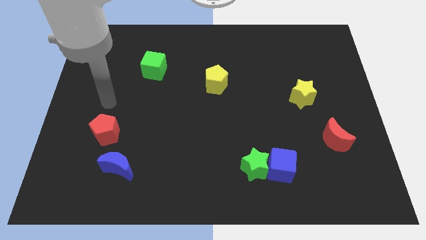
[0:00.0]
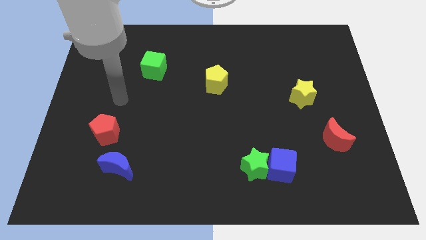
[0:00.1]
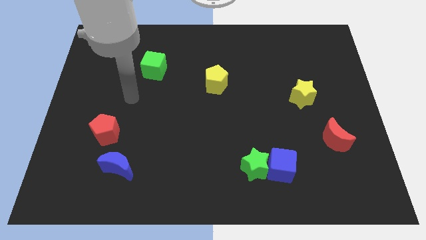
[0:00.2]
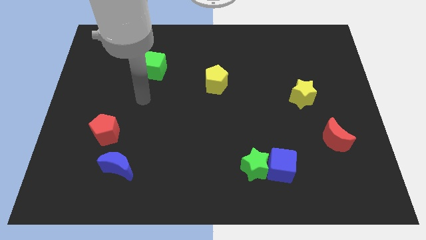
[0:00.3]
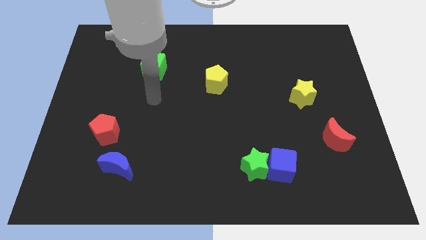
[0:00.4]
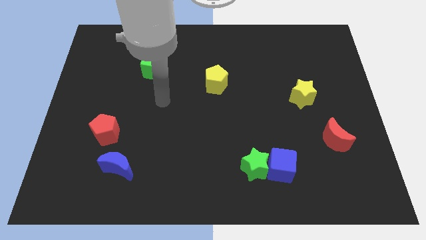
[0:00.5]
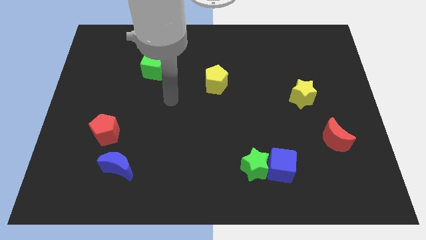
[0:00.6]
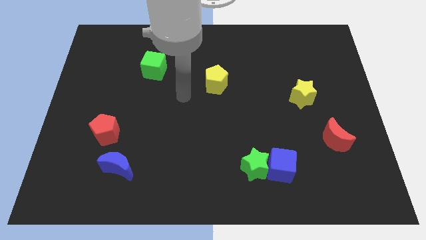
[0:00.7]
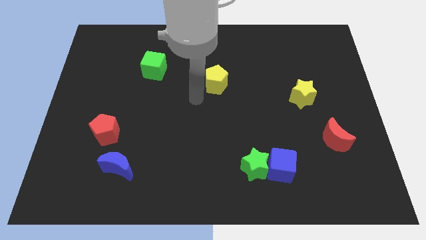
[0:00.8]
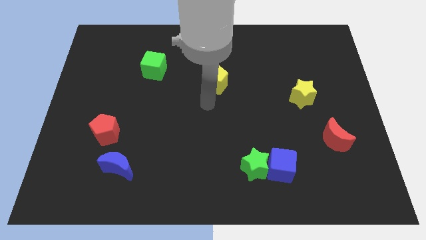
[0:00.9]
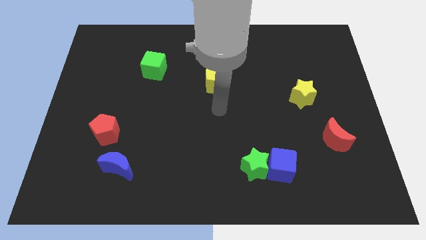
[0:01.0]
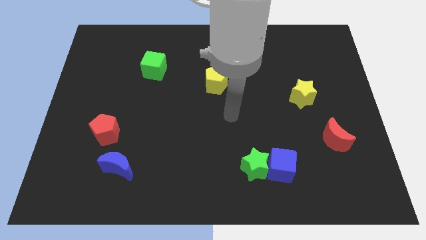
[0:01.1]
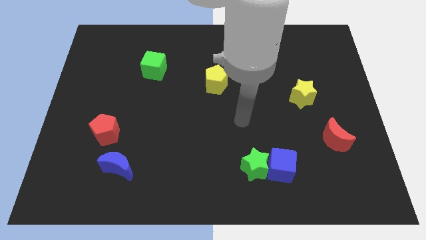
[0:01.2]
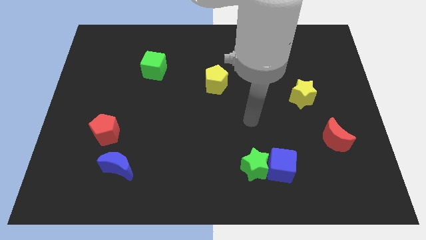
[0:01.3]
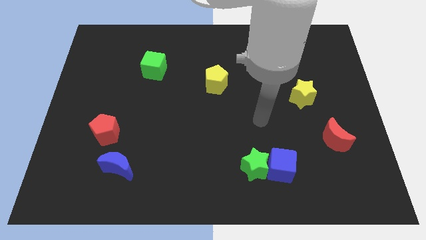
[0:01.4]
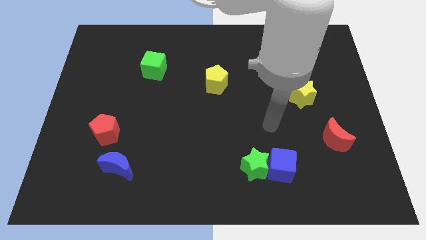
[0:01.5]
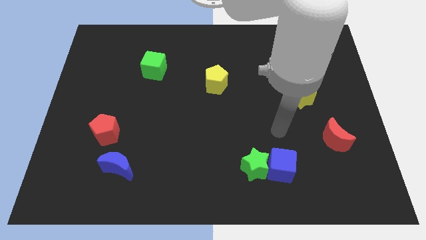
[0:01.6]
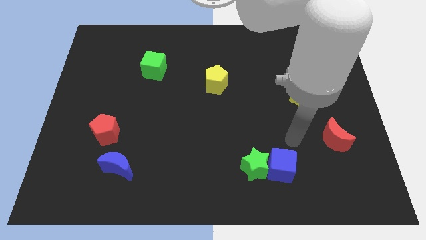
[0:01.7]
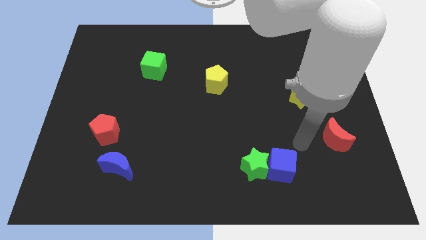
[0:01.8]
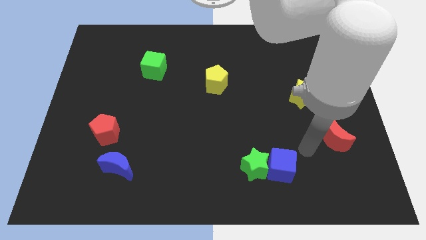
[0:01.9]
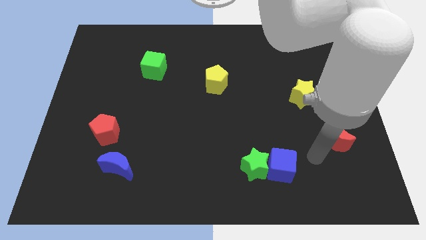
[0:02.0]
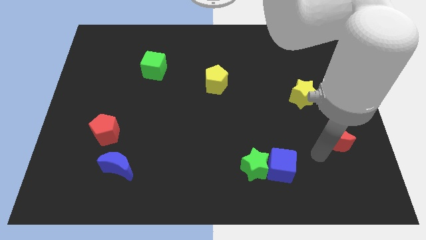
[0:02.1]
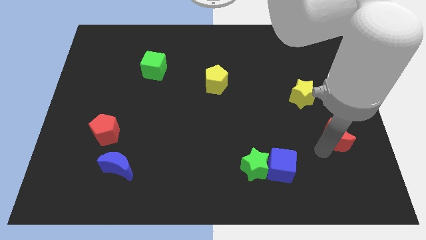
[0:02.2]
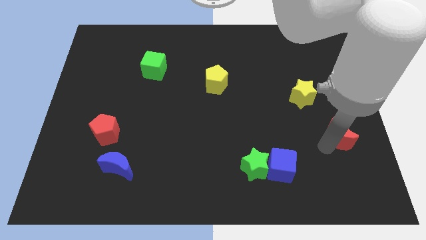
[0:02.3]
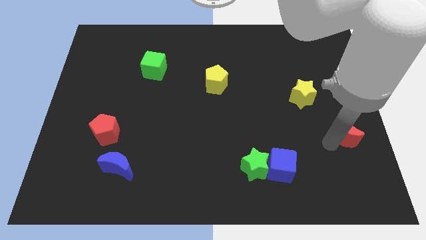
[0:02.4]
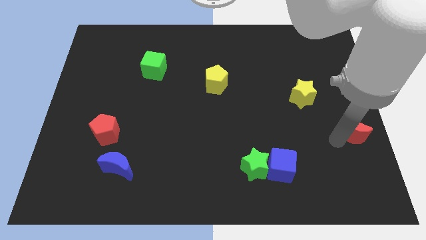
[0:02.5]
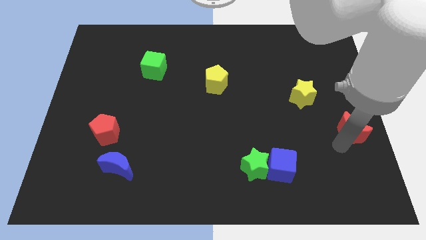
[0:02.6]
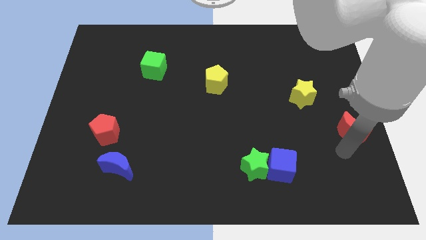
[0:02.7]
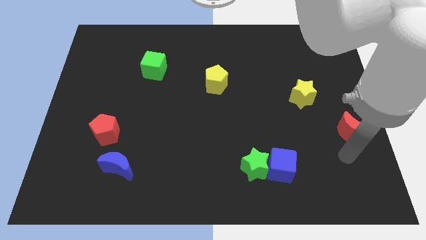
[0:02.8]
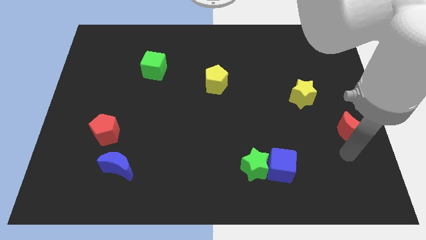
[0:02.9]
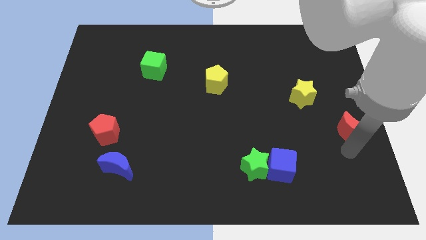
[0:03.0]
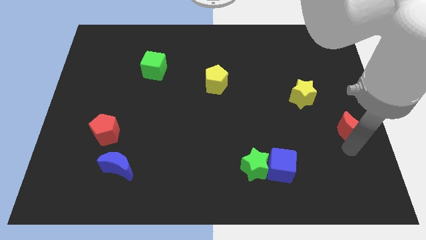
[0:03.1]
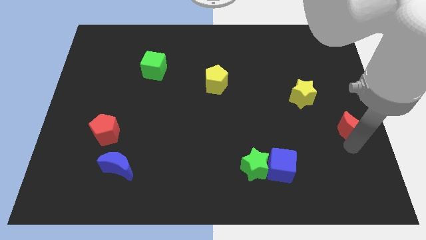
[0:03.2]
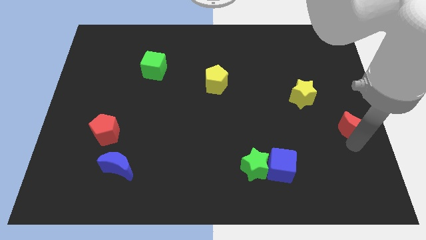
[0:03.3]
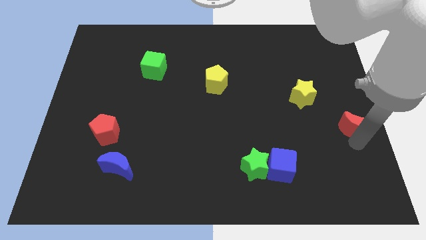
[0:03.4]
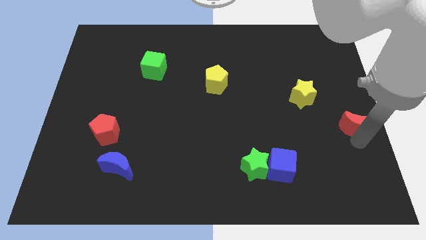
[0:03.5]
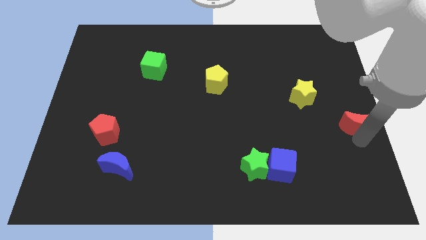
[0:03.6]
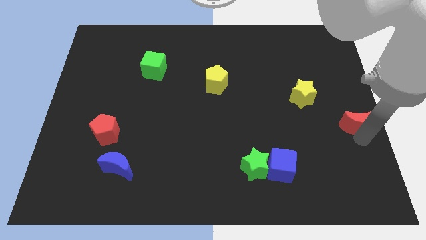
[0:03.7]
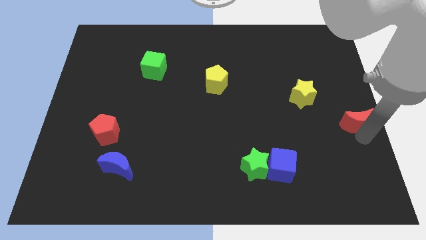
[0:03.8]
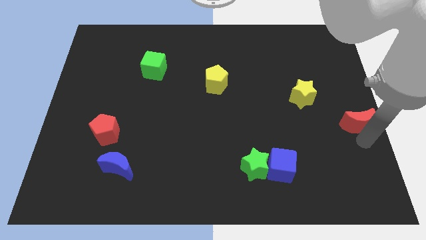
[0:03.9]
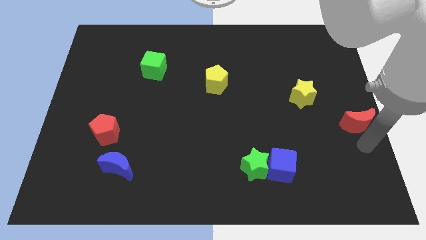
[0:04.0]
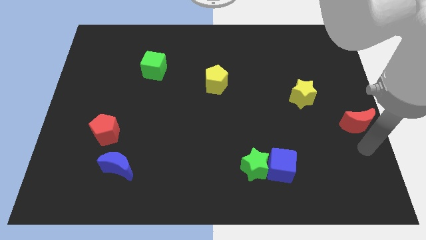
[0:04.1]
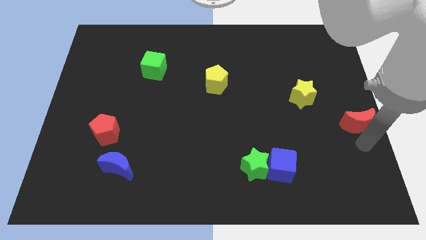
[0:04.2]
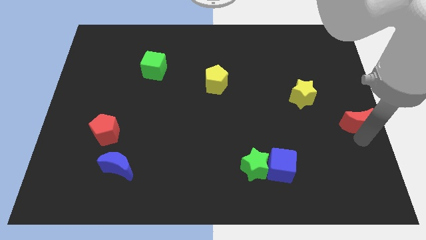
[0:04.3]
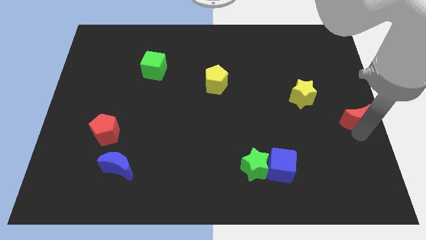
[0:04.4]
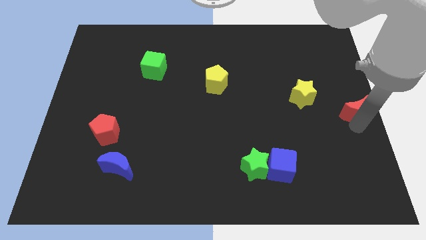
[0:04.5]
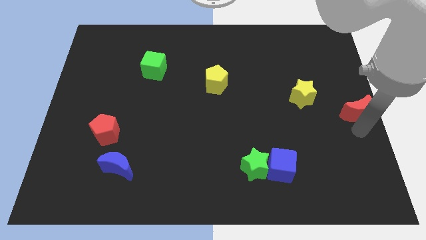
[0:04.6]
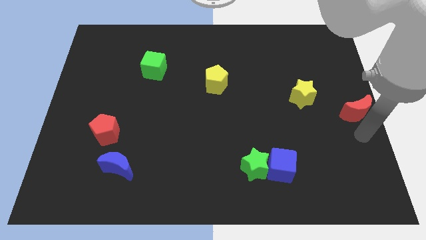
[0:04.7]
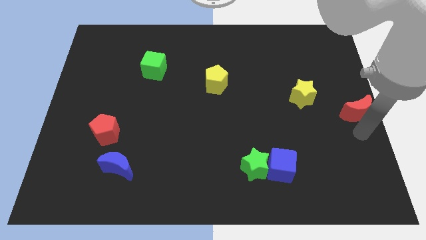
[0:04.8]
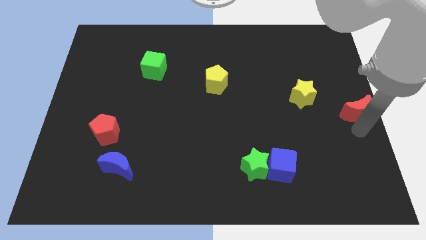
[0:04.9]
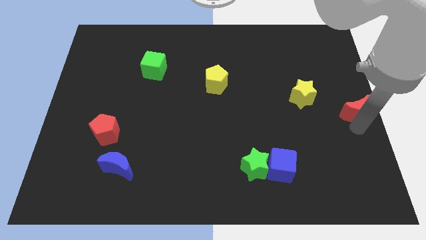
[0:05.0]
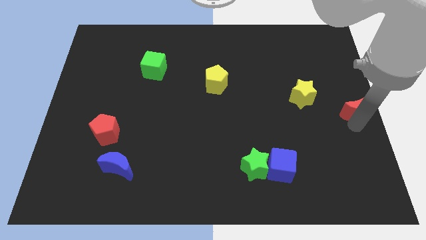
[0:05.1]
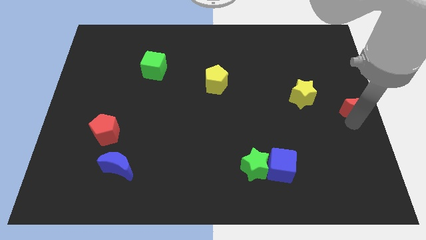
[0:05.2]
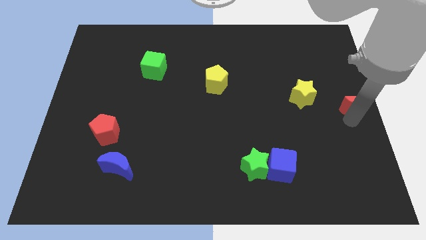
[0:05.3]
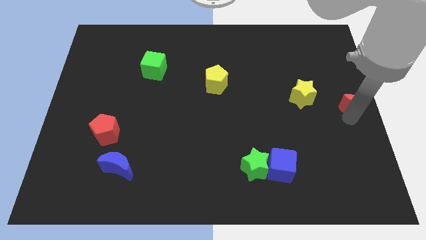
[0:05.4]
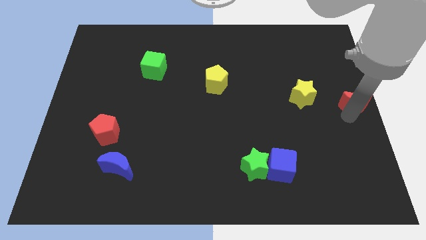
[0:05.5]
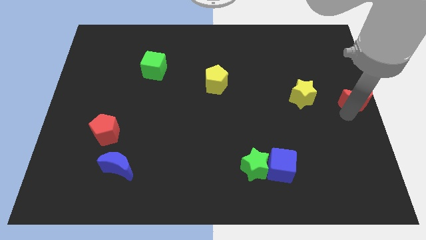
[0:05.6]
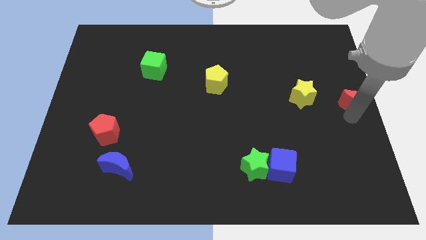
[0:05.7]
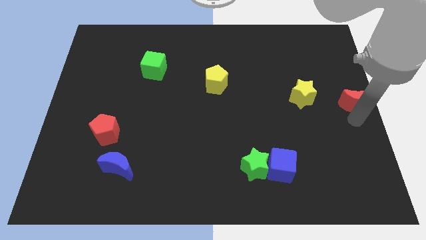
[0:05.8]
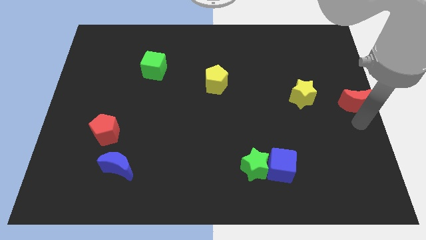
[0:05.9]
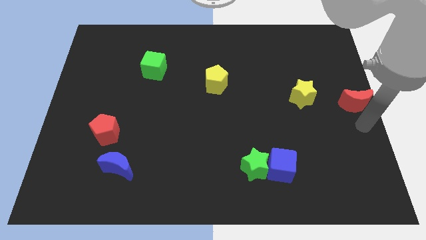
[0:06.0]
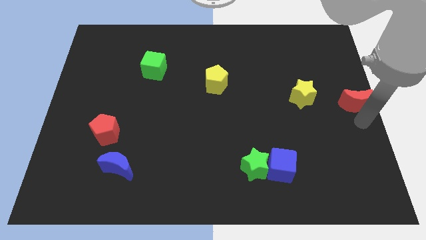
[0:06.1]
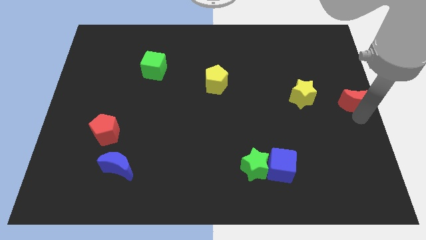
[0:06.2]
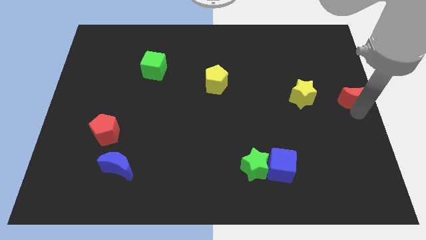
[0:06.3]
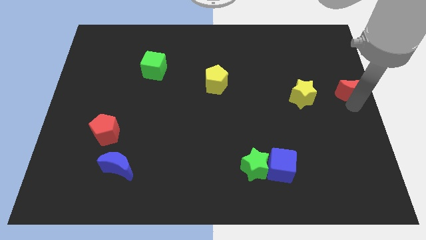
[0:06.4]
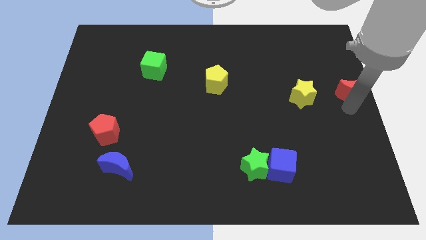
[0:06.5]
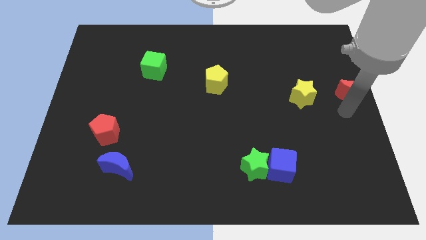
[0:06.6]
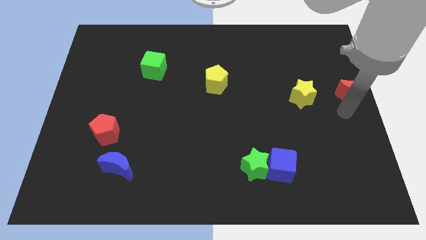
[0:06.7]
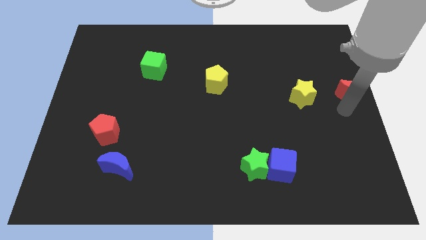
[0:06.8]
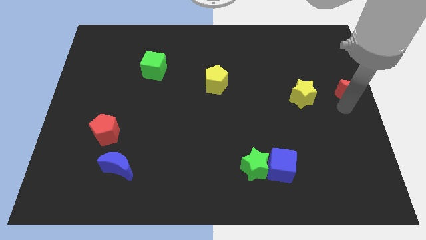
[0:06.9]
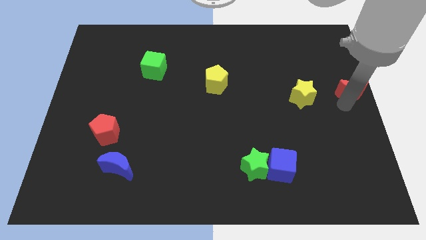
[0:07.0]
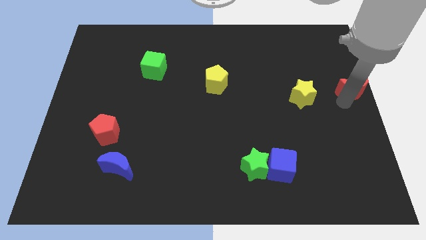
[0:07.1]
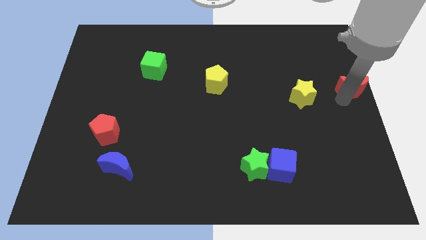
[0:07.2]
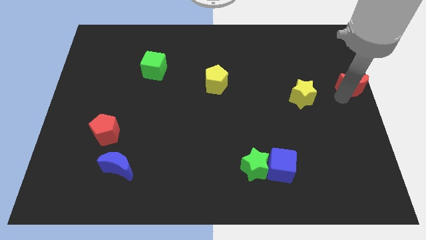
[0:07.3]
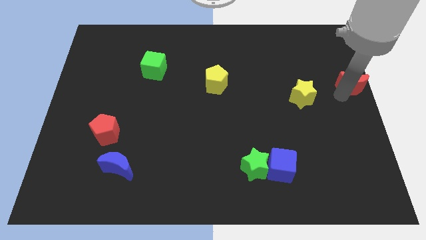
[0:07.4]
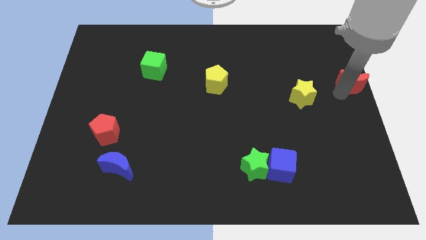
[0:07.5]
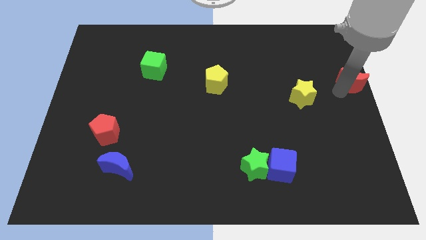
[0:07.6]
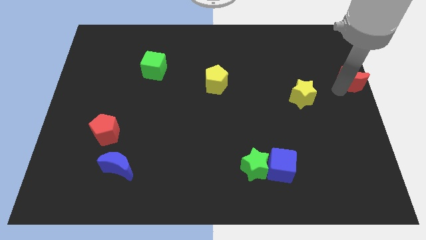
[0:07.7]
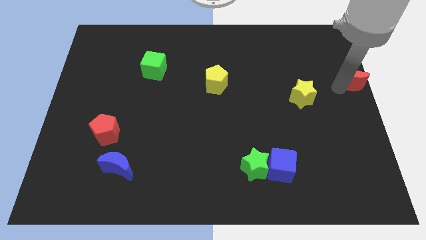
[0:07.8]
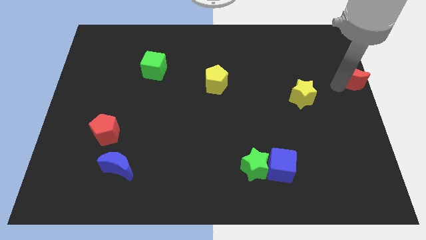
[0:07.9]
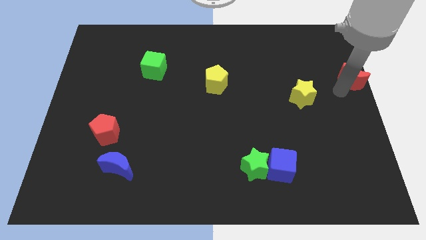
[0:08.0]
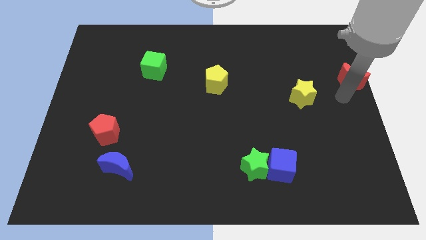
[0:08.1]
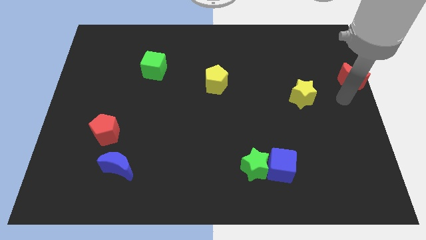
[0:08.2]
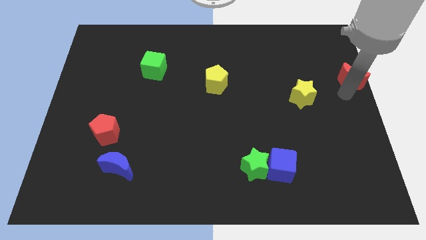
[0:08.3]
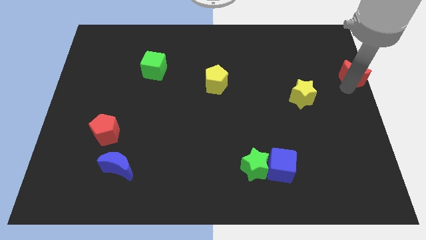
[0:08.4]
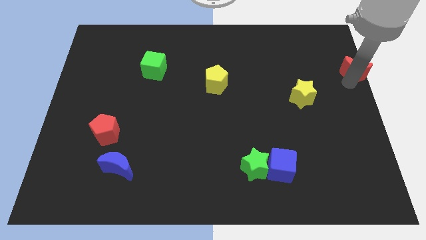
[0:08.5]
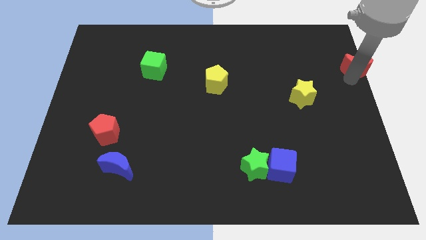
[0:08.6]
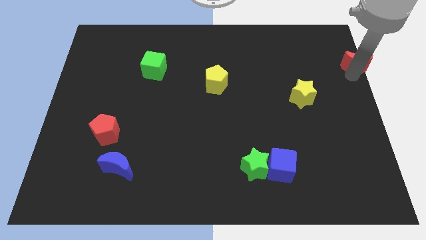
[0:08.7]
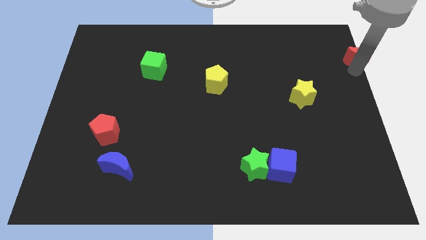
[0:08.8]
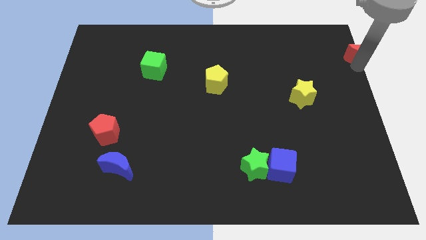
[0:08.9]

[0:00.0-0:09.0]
slide the red moon to the top right corner
